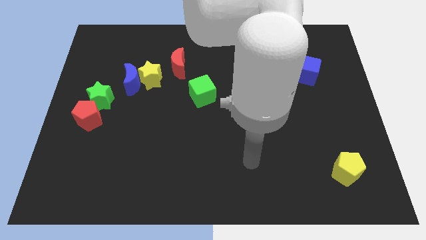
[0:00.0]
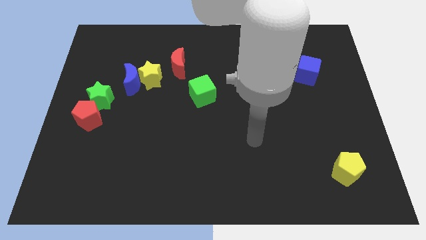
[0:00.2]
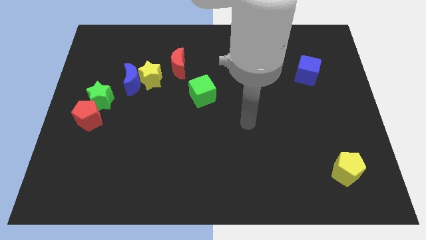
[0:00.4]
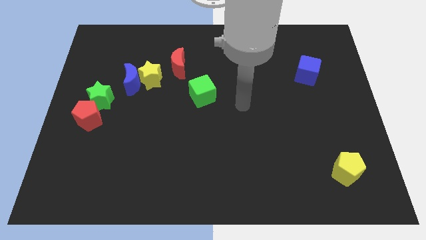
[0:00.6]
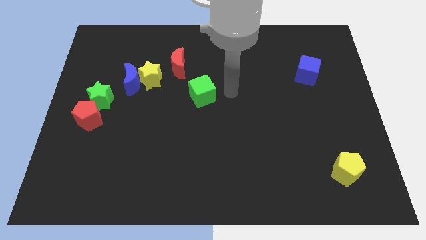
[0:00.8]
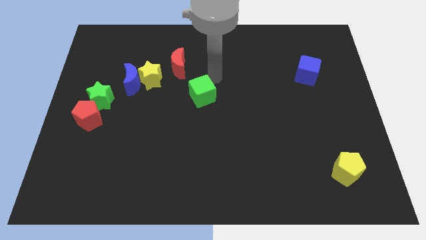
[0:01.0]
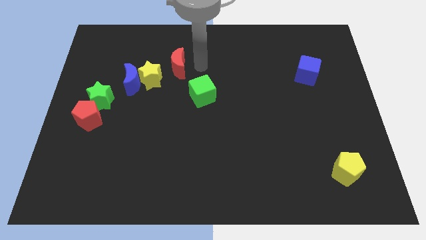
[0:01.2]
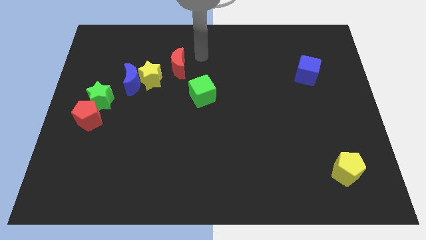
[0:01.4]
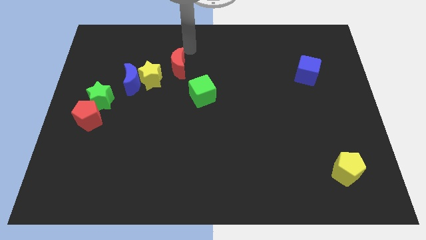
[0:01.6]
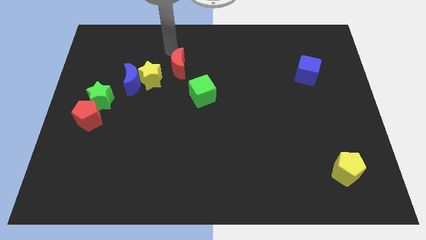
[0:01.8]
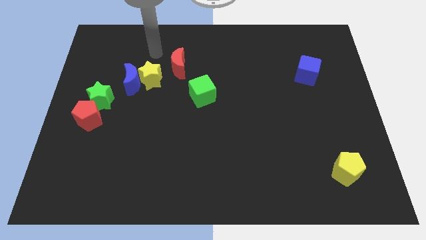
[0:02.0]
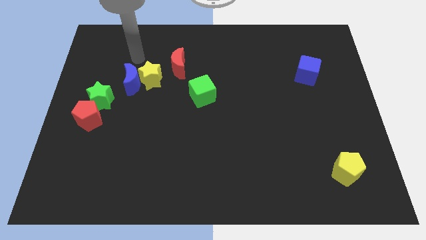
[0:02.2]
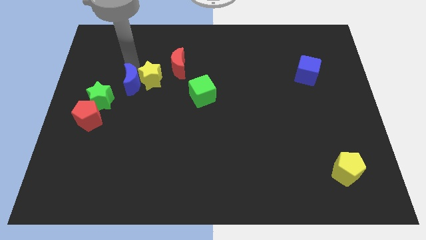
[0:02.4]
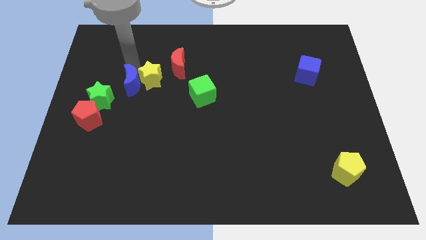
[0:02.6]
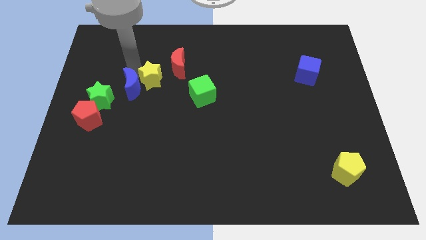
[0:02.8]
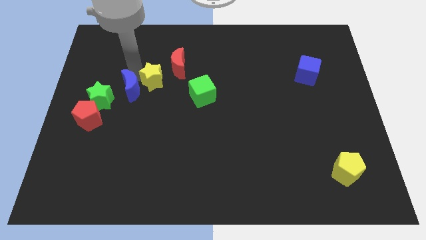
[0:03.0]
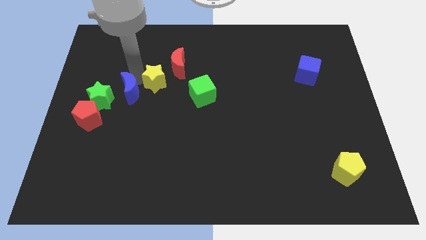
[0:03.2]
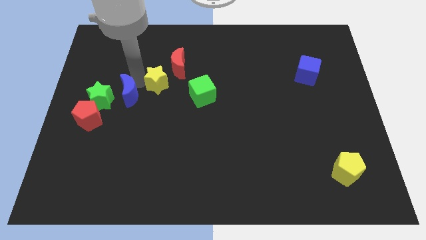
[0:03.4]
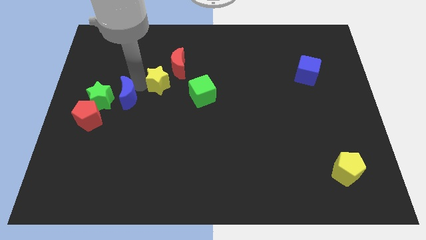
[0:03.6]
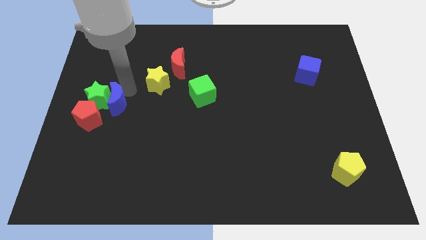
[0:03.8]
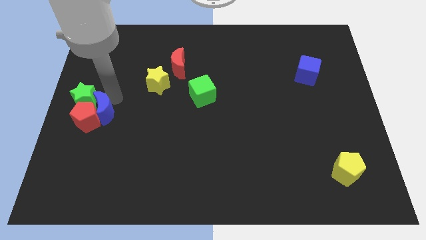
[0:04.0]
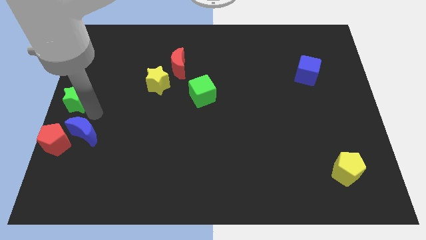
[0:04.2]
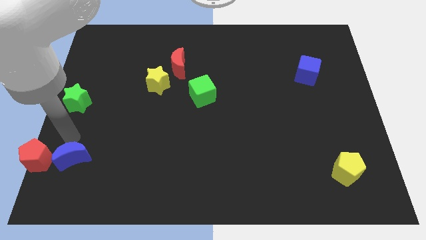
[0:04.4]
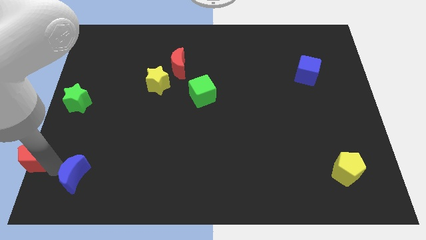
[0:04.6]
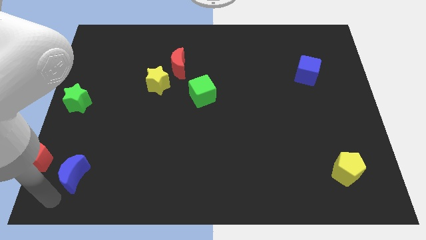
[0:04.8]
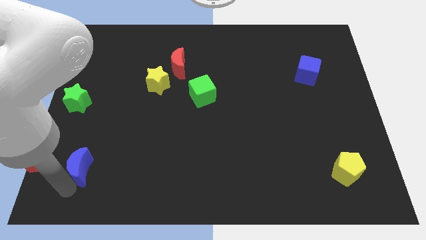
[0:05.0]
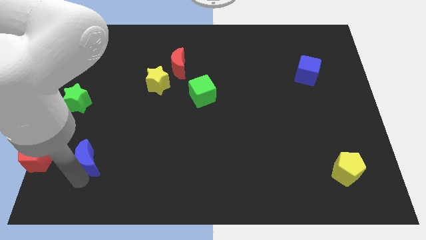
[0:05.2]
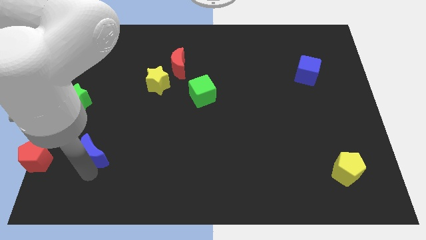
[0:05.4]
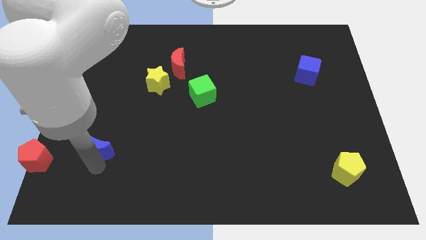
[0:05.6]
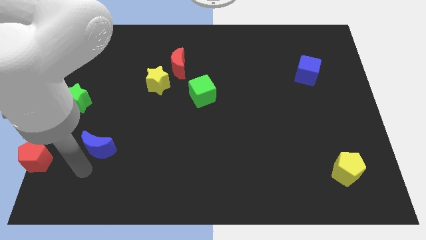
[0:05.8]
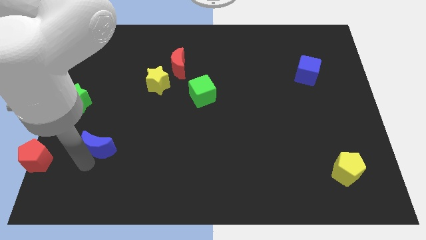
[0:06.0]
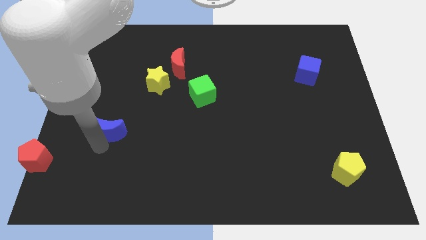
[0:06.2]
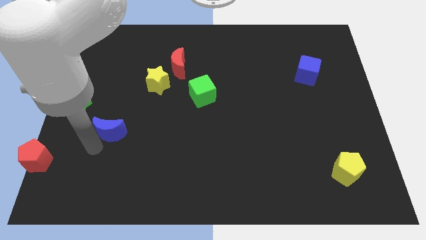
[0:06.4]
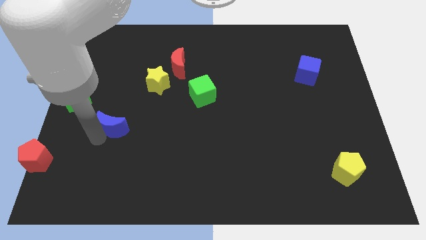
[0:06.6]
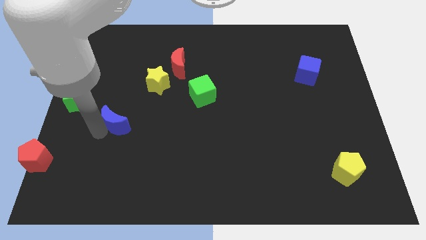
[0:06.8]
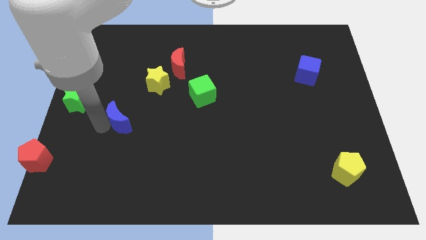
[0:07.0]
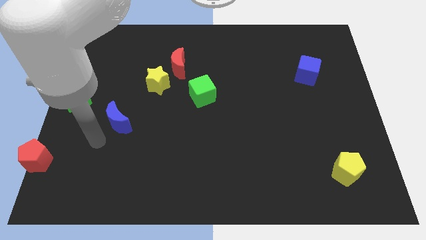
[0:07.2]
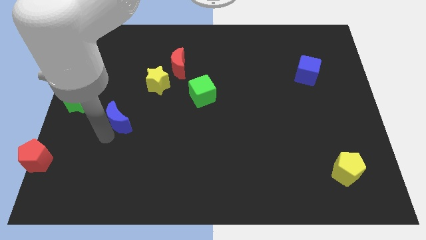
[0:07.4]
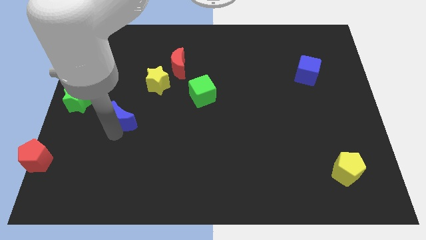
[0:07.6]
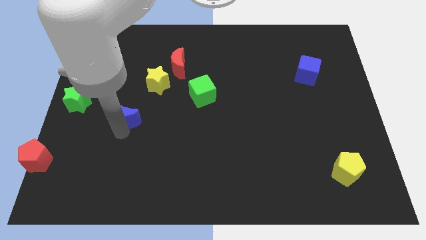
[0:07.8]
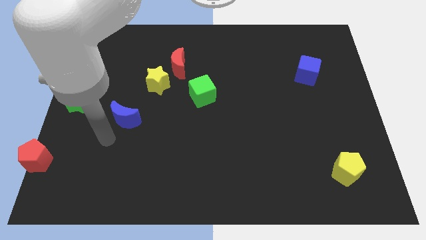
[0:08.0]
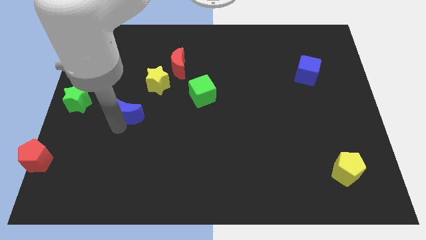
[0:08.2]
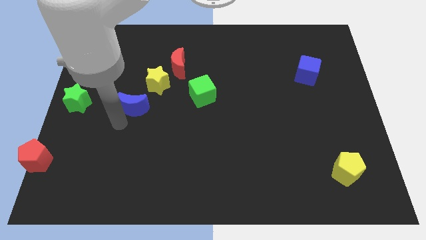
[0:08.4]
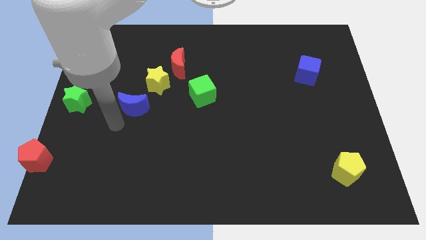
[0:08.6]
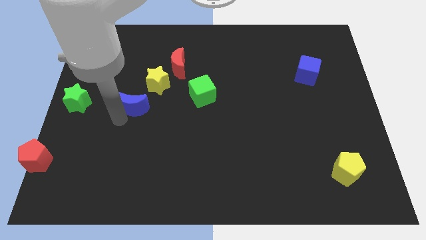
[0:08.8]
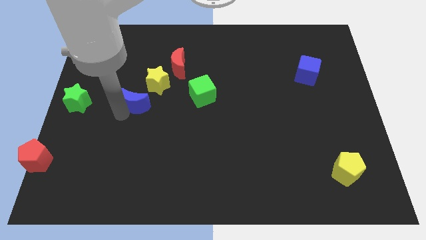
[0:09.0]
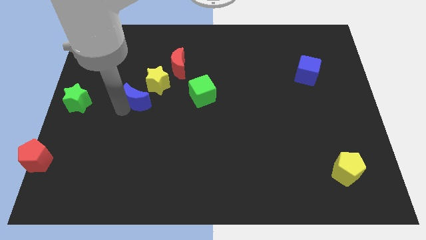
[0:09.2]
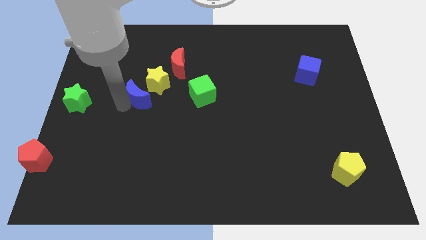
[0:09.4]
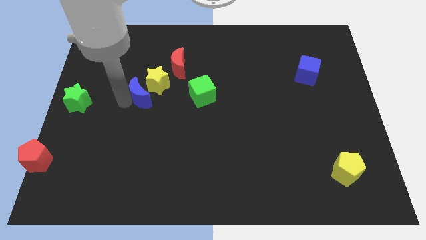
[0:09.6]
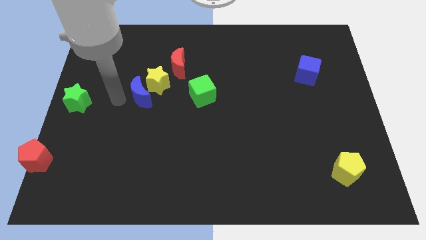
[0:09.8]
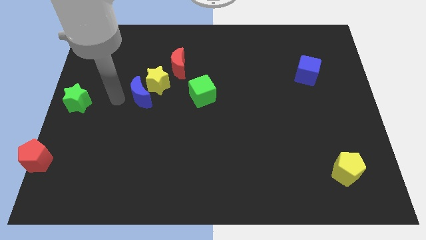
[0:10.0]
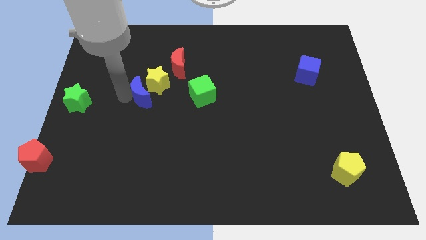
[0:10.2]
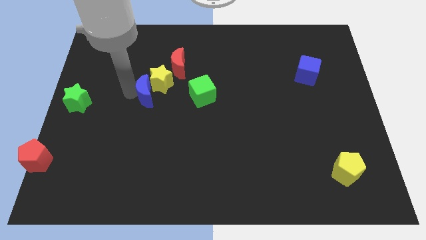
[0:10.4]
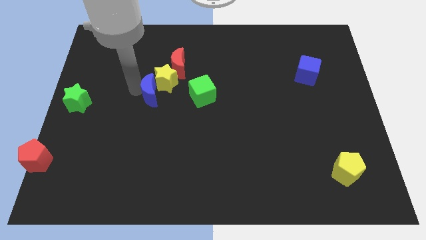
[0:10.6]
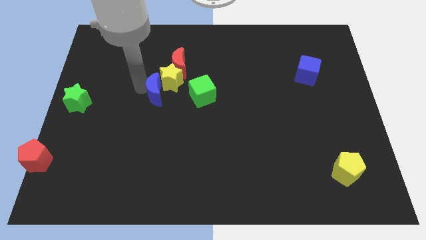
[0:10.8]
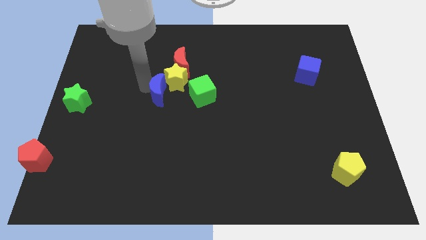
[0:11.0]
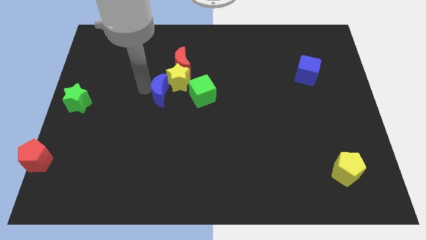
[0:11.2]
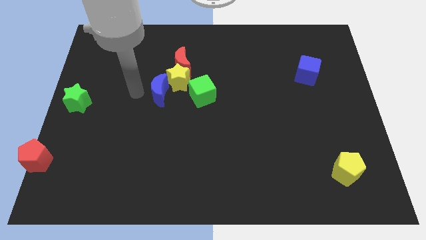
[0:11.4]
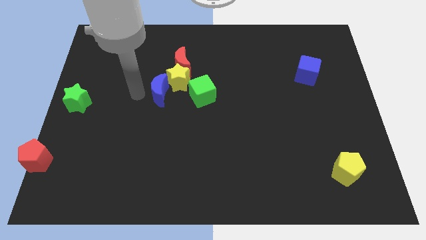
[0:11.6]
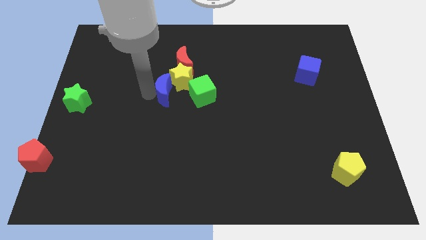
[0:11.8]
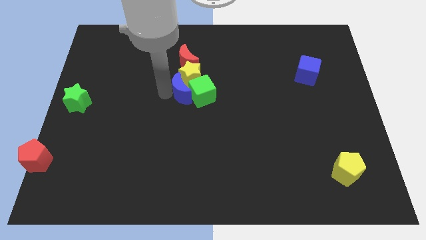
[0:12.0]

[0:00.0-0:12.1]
put the blue moon towards the green cube

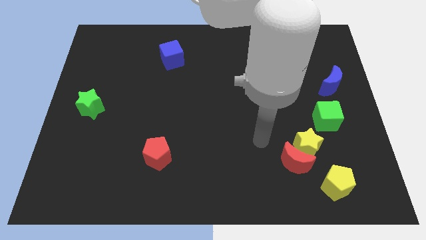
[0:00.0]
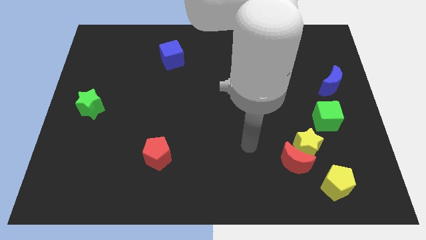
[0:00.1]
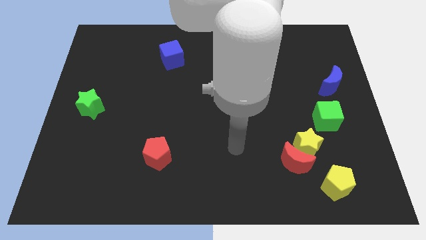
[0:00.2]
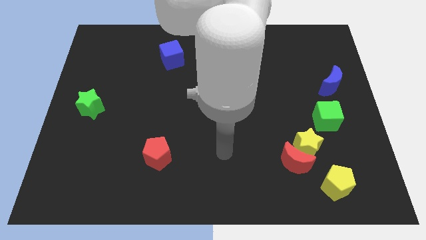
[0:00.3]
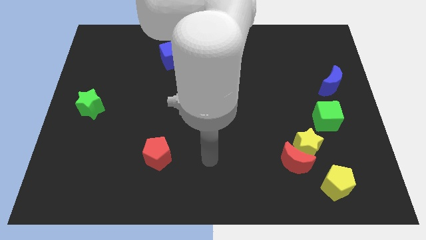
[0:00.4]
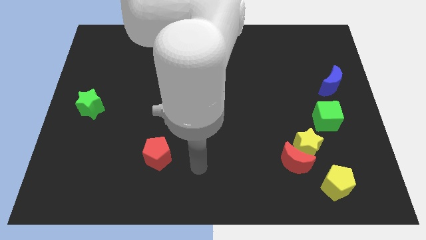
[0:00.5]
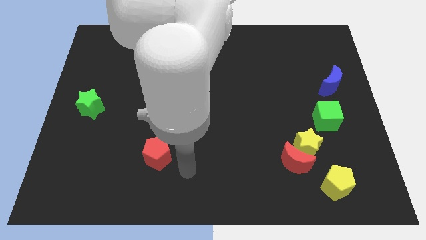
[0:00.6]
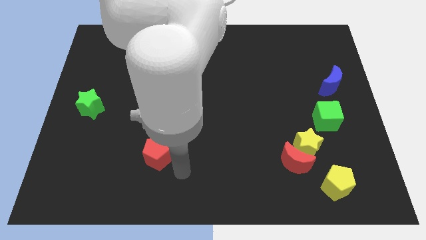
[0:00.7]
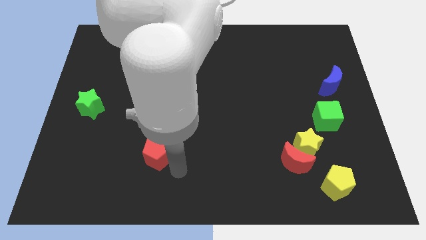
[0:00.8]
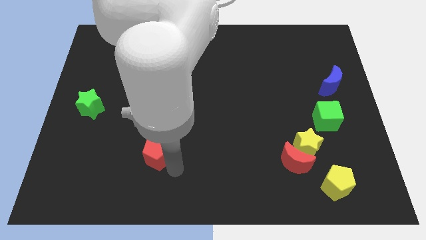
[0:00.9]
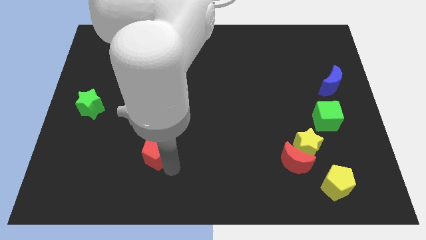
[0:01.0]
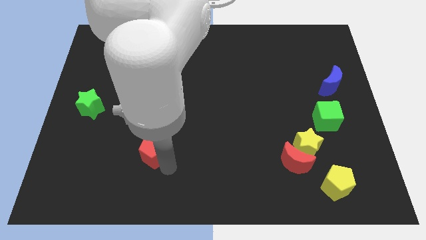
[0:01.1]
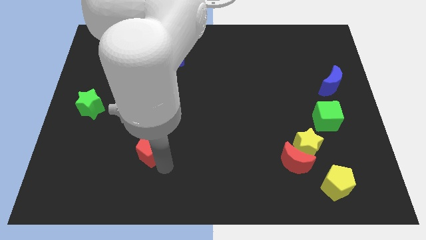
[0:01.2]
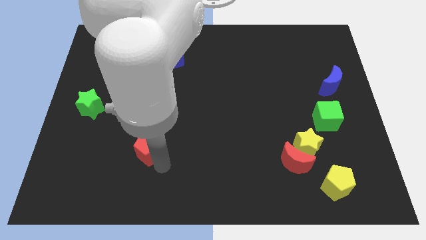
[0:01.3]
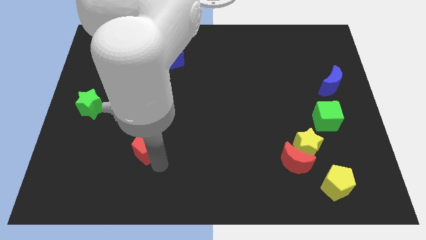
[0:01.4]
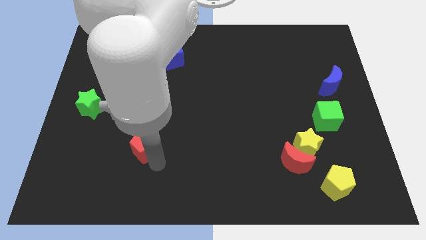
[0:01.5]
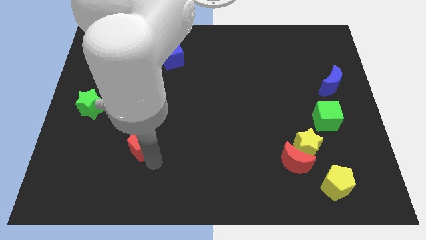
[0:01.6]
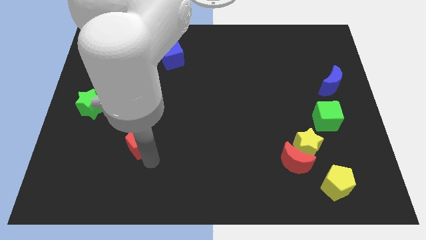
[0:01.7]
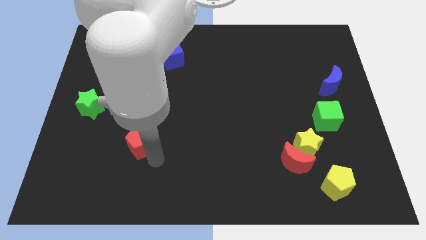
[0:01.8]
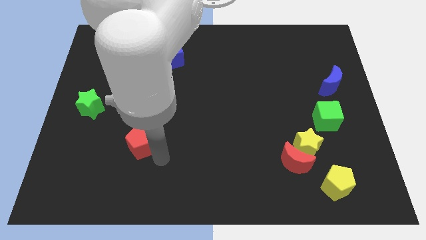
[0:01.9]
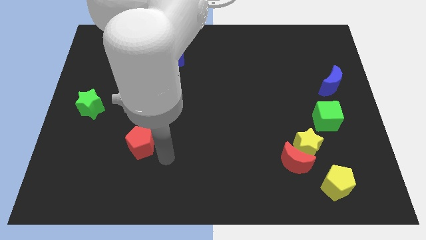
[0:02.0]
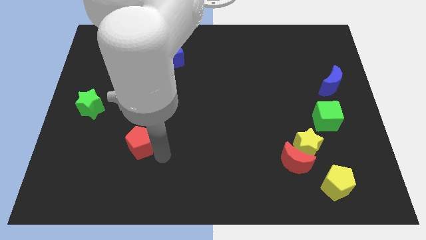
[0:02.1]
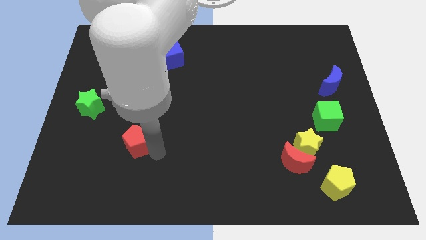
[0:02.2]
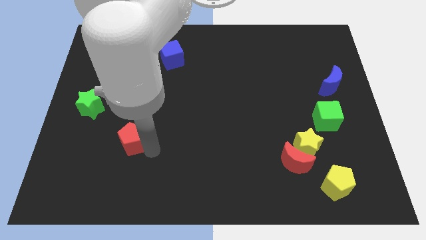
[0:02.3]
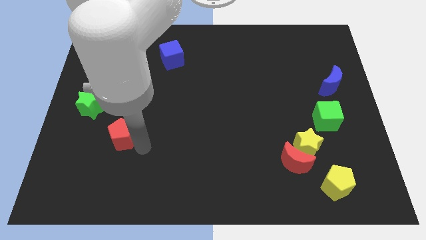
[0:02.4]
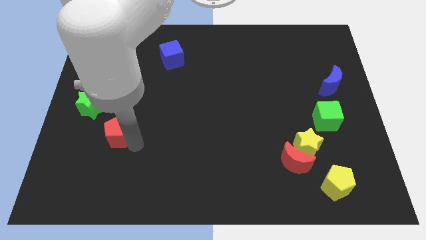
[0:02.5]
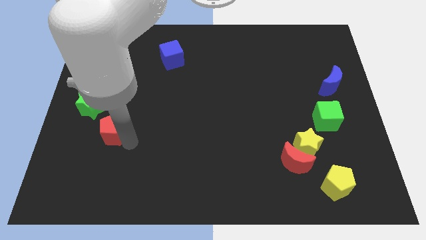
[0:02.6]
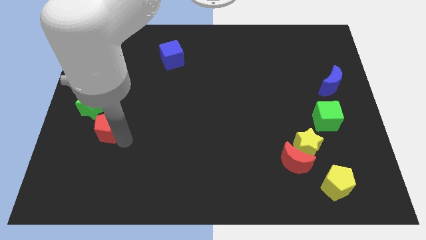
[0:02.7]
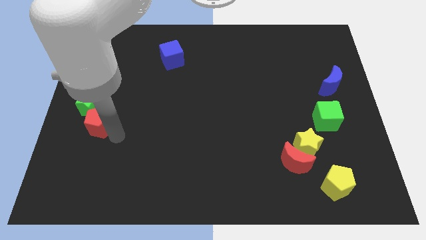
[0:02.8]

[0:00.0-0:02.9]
move the red pentagon to the green star
